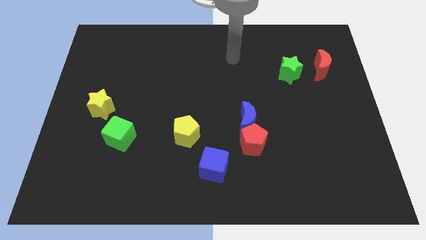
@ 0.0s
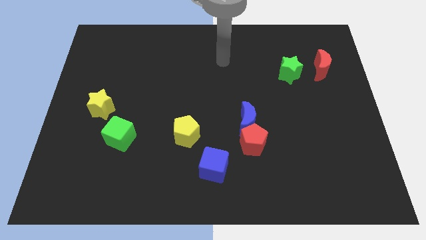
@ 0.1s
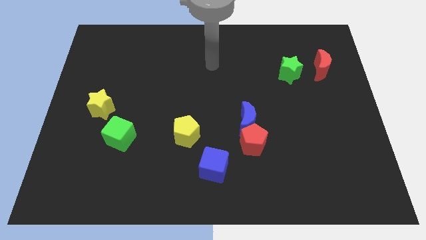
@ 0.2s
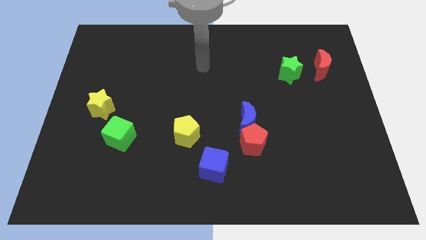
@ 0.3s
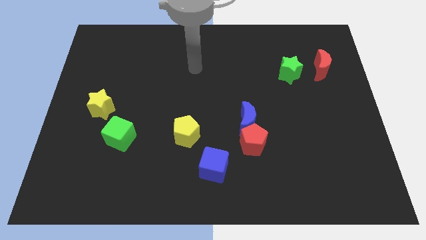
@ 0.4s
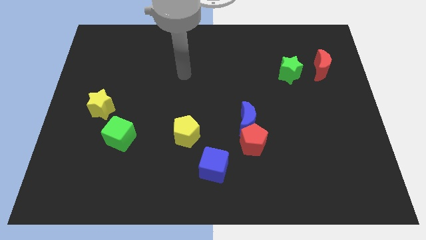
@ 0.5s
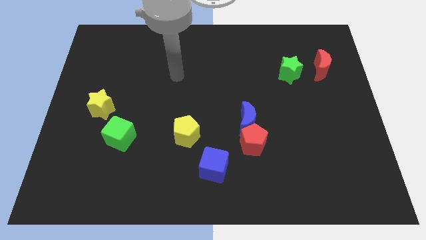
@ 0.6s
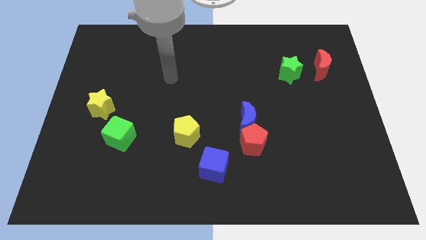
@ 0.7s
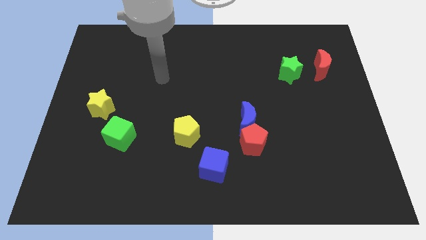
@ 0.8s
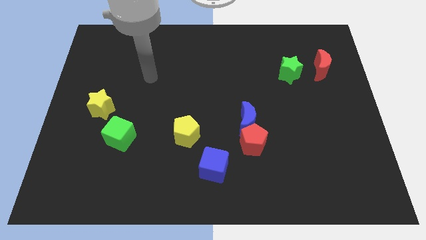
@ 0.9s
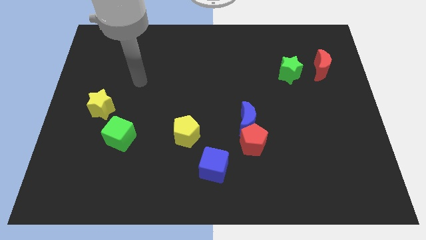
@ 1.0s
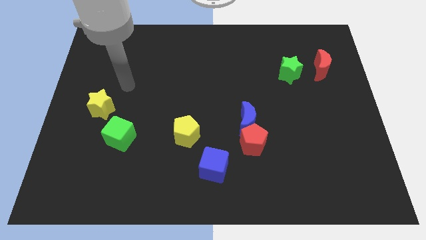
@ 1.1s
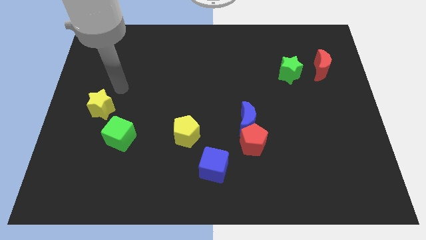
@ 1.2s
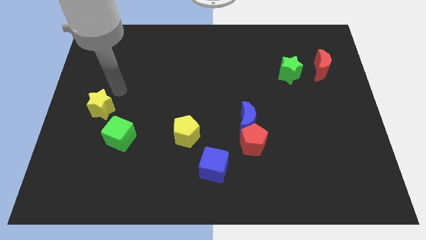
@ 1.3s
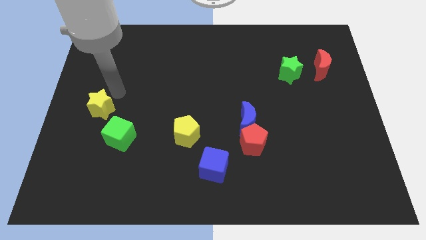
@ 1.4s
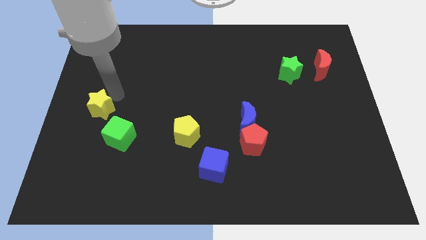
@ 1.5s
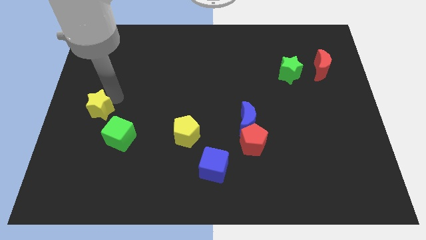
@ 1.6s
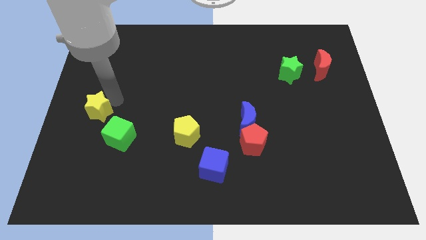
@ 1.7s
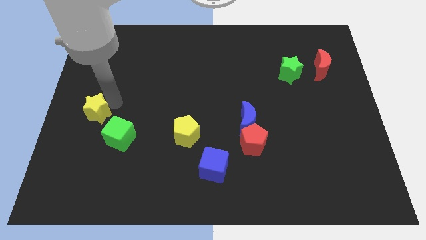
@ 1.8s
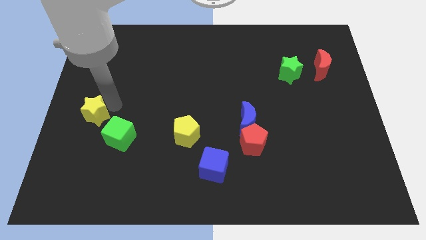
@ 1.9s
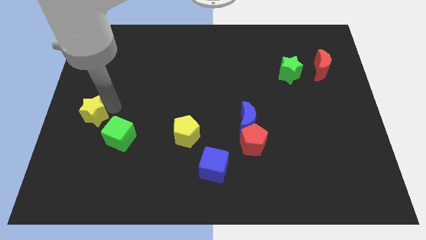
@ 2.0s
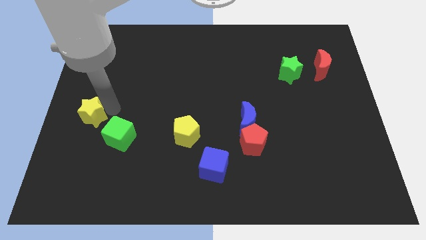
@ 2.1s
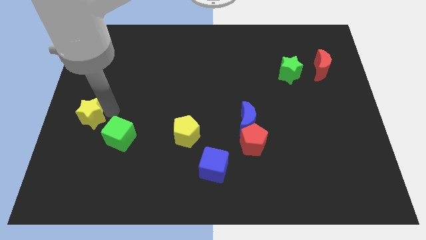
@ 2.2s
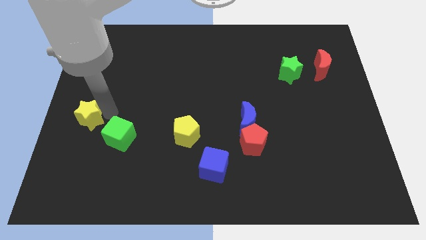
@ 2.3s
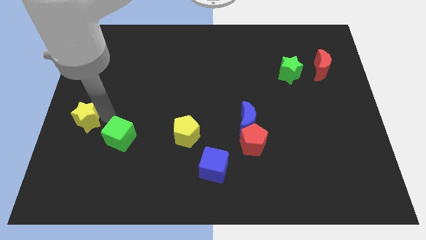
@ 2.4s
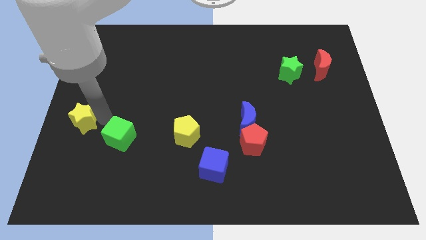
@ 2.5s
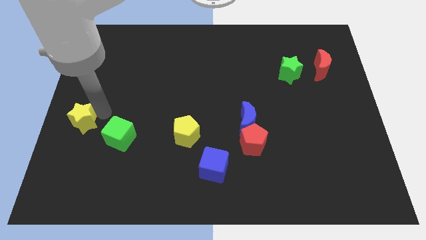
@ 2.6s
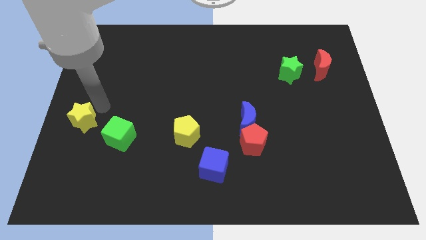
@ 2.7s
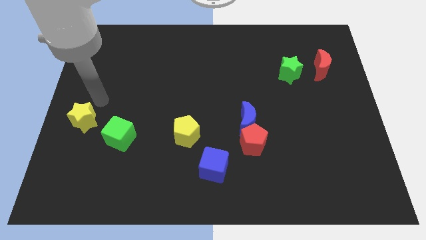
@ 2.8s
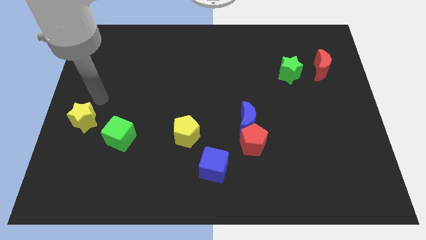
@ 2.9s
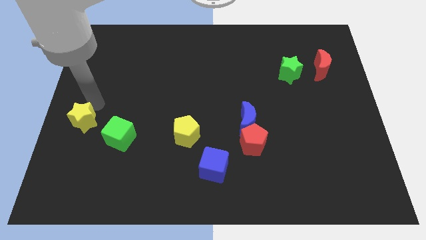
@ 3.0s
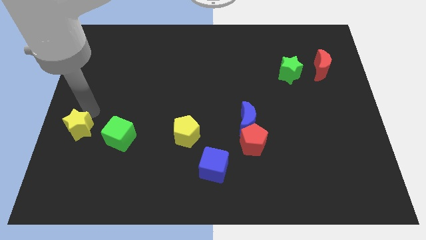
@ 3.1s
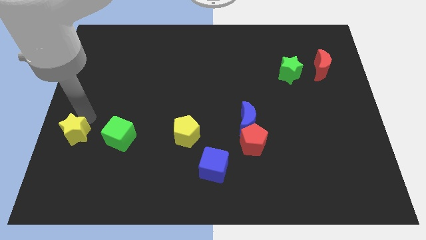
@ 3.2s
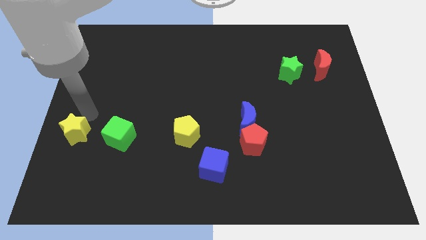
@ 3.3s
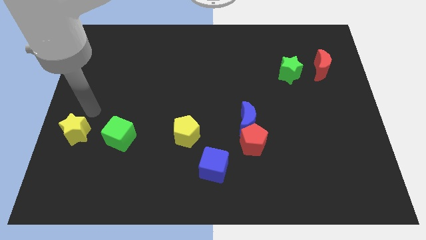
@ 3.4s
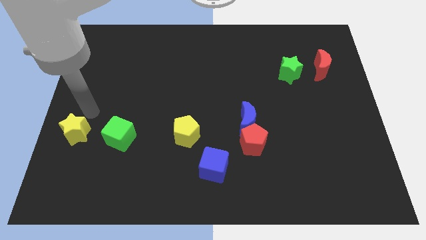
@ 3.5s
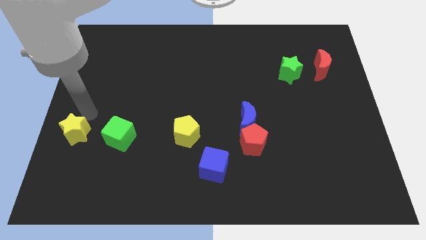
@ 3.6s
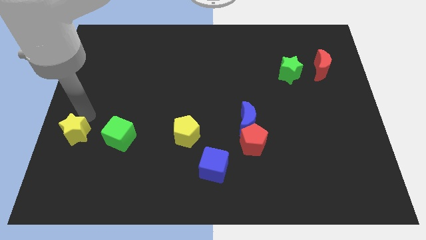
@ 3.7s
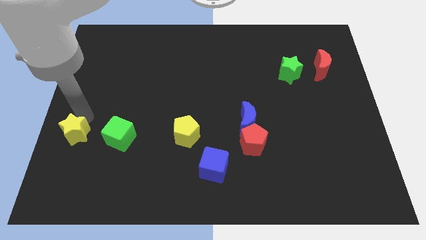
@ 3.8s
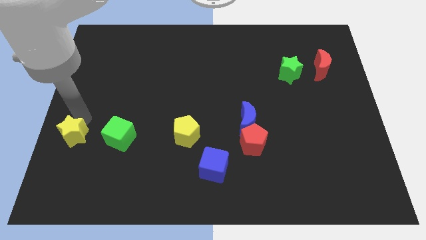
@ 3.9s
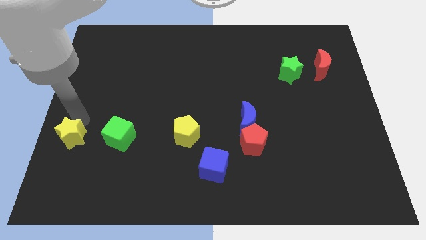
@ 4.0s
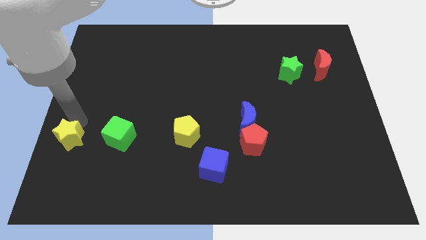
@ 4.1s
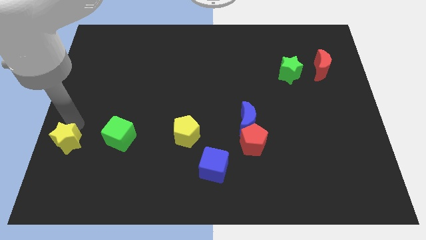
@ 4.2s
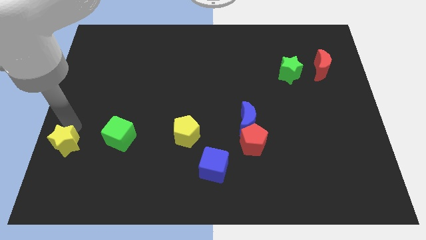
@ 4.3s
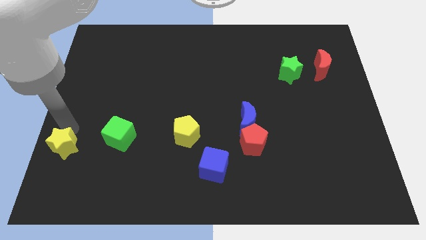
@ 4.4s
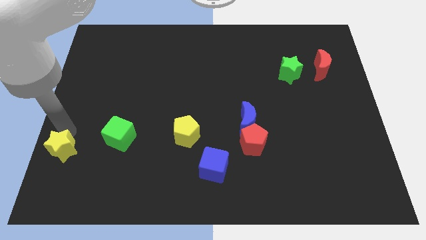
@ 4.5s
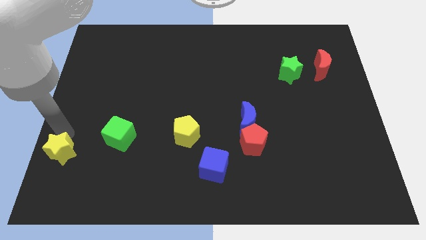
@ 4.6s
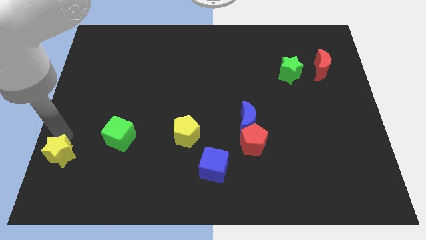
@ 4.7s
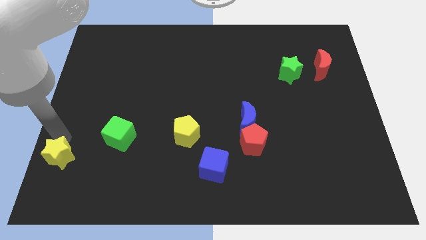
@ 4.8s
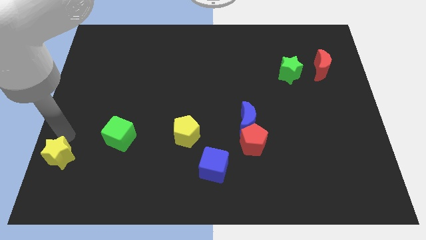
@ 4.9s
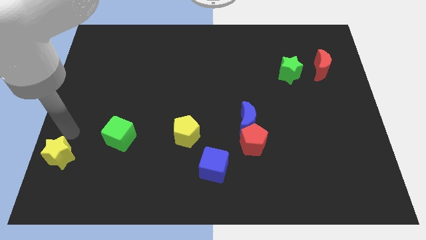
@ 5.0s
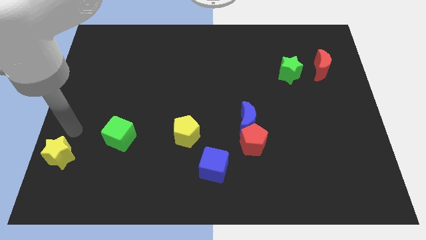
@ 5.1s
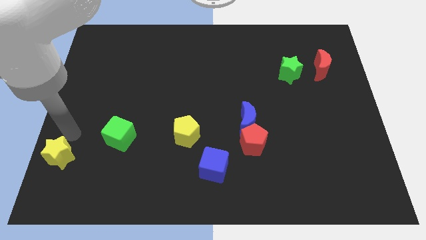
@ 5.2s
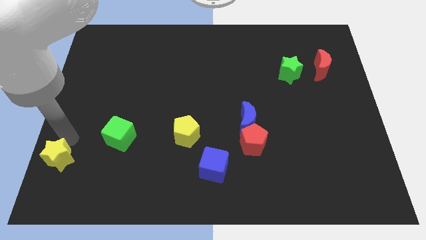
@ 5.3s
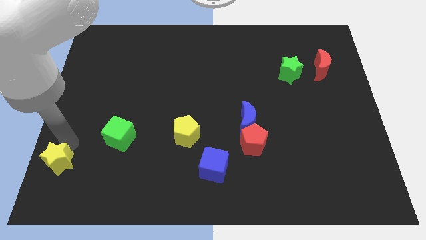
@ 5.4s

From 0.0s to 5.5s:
slide the yellow star to the lower left corner

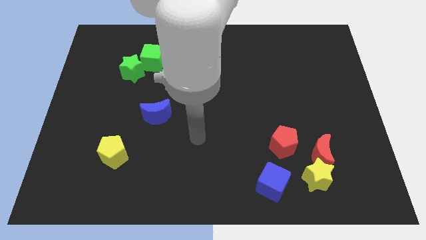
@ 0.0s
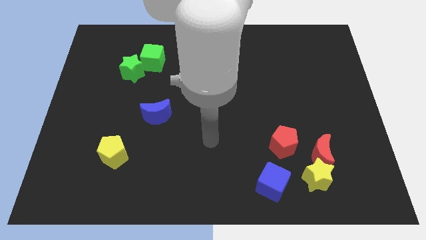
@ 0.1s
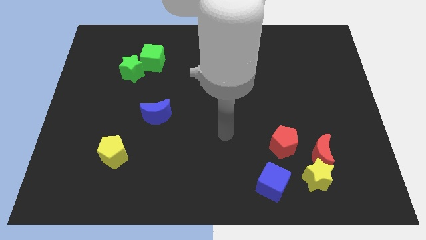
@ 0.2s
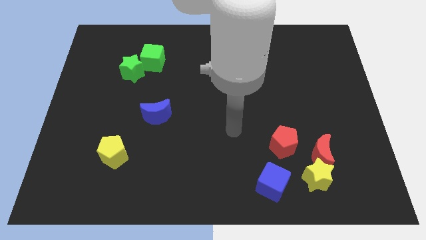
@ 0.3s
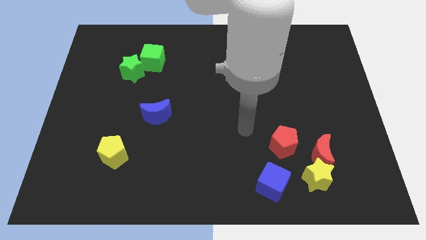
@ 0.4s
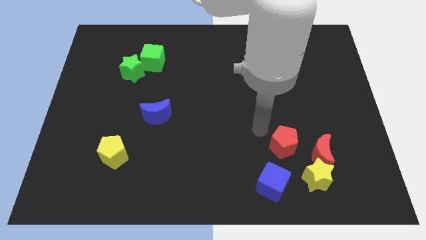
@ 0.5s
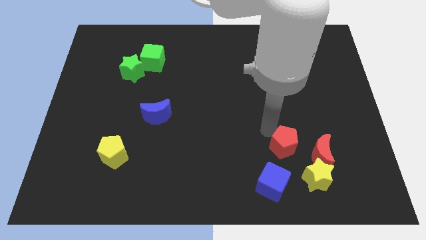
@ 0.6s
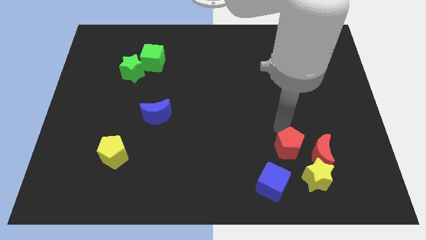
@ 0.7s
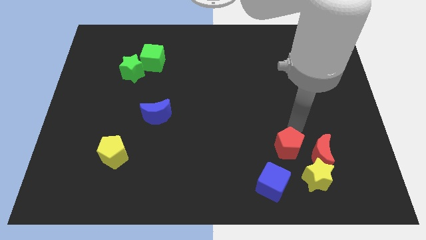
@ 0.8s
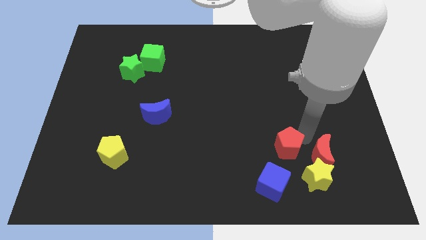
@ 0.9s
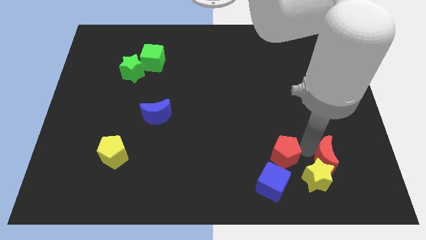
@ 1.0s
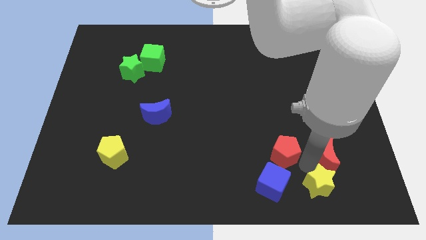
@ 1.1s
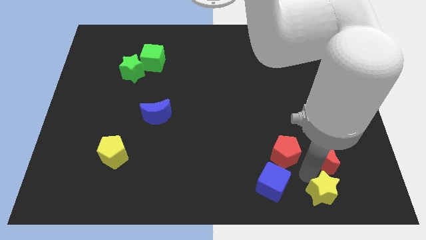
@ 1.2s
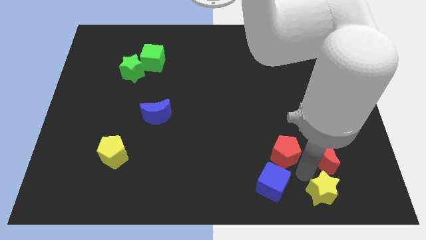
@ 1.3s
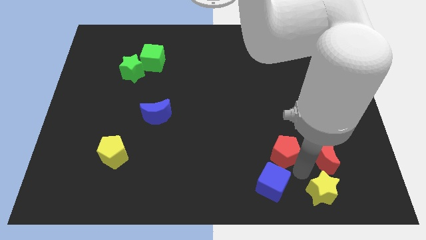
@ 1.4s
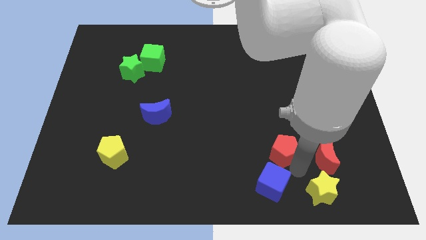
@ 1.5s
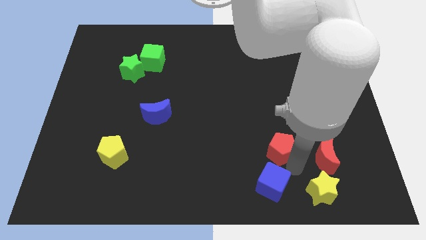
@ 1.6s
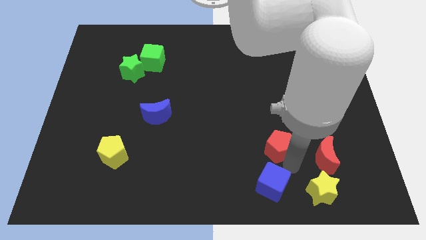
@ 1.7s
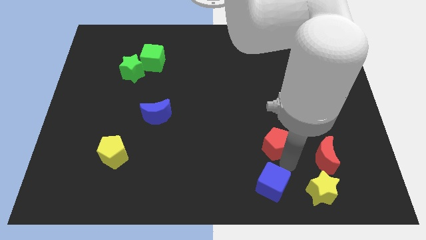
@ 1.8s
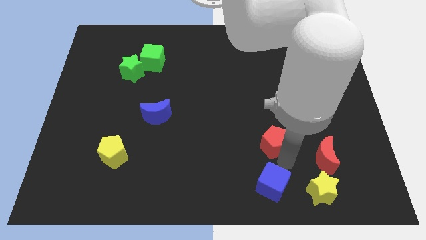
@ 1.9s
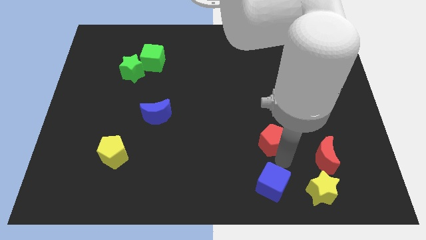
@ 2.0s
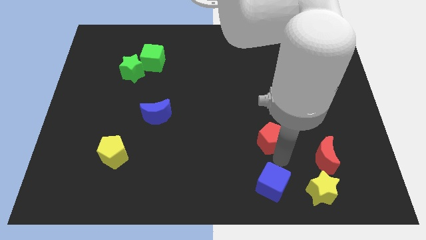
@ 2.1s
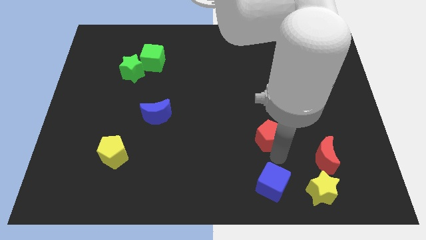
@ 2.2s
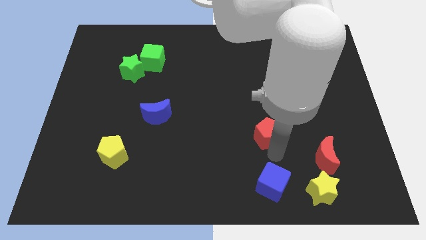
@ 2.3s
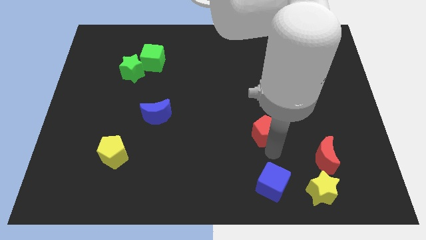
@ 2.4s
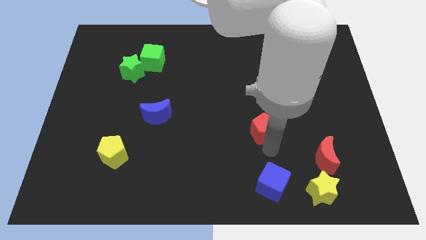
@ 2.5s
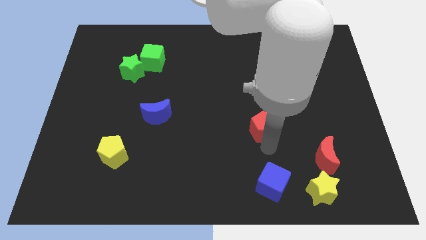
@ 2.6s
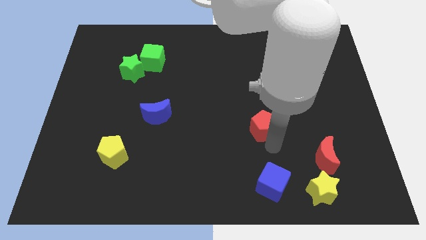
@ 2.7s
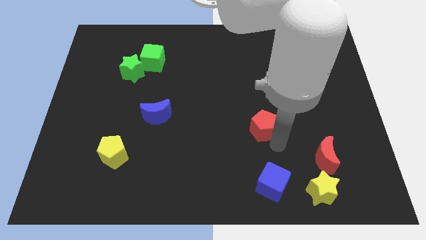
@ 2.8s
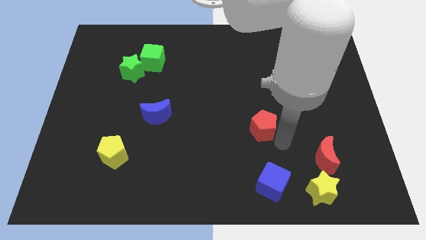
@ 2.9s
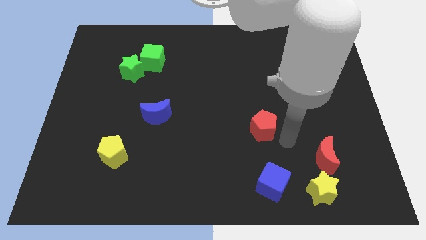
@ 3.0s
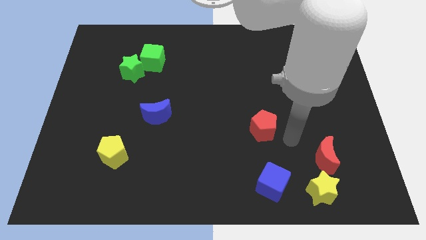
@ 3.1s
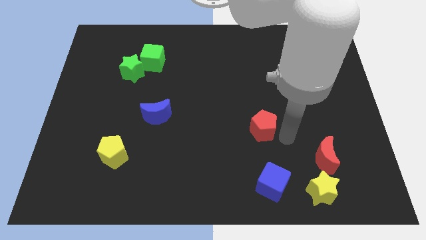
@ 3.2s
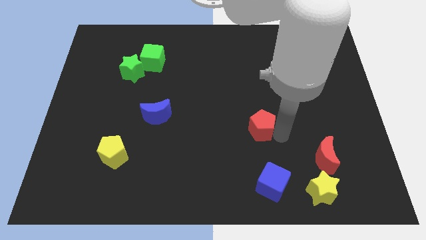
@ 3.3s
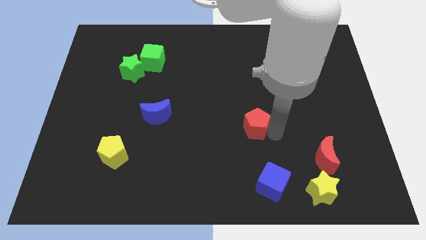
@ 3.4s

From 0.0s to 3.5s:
slide the red pentagon to the middle
